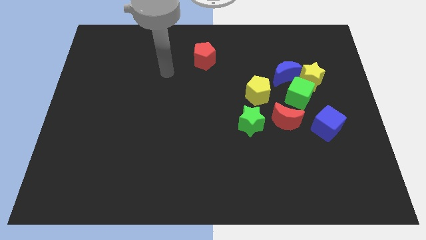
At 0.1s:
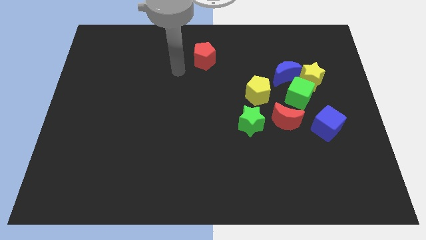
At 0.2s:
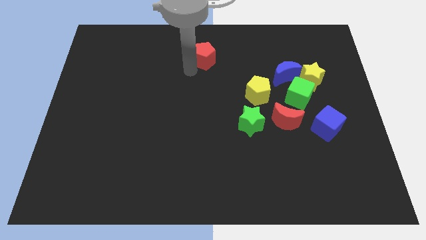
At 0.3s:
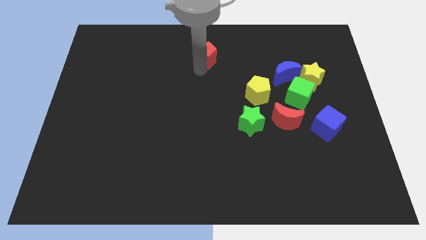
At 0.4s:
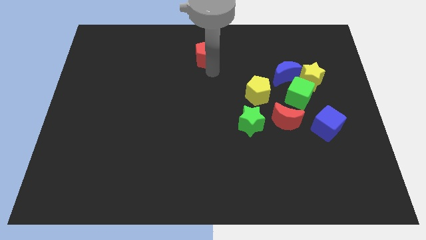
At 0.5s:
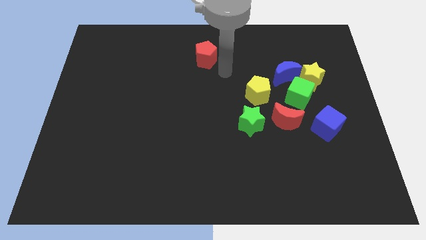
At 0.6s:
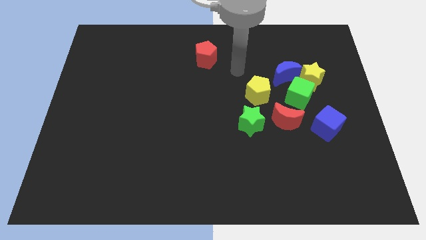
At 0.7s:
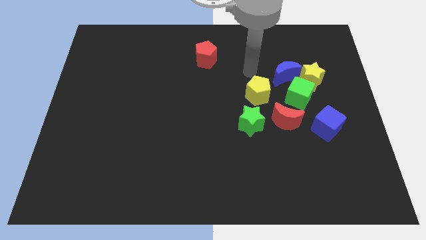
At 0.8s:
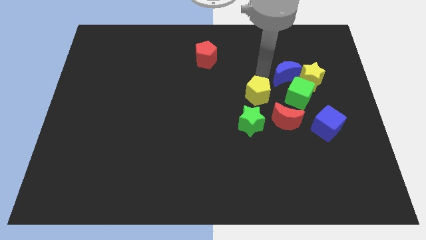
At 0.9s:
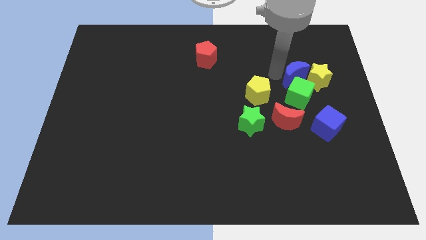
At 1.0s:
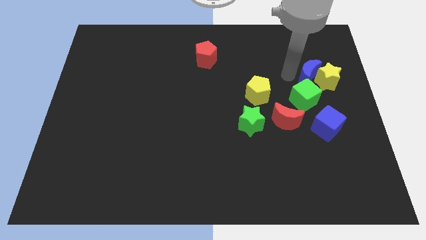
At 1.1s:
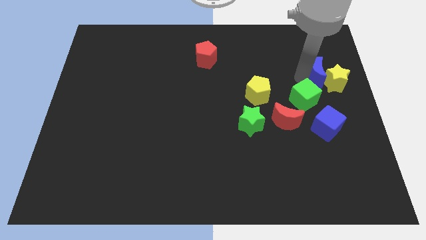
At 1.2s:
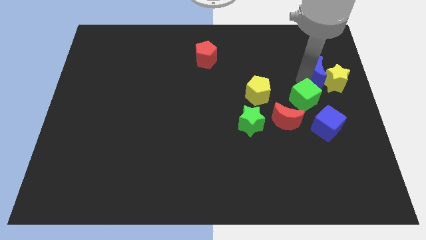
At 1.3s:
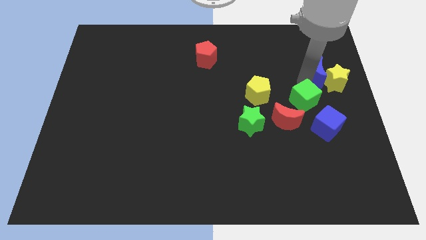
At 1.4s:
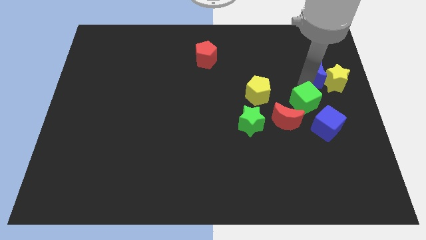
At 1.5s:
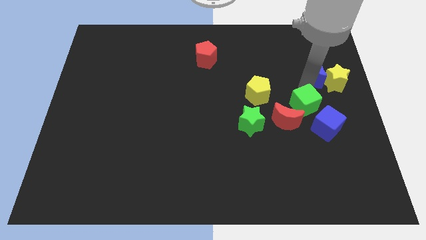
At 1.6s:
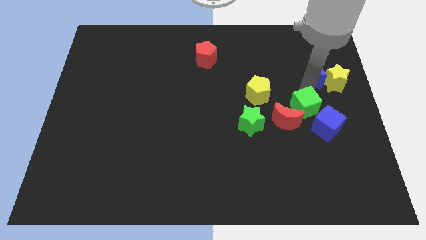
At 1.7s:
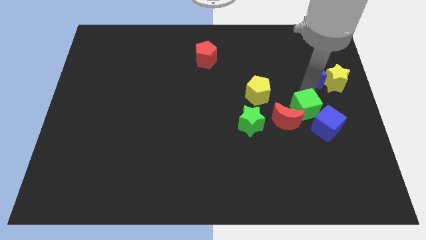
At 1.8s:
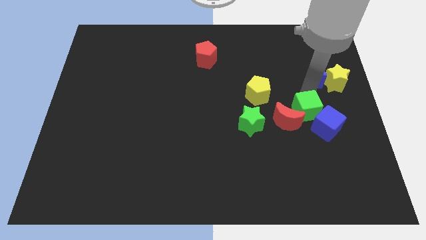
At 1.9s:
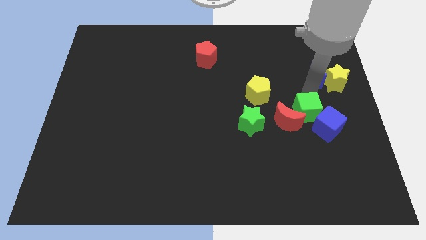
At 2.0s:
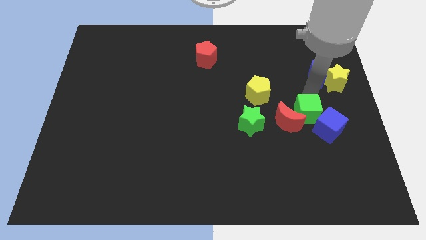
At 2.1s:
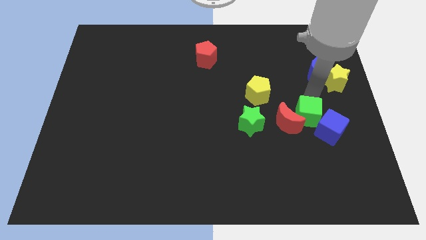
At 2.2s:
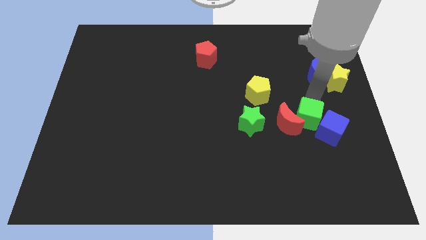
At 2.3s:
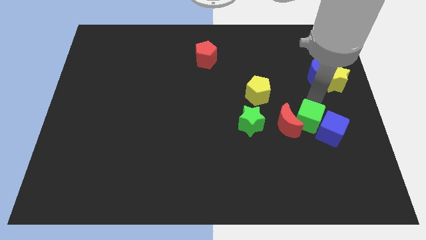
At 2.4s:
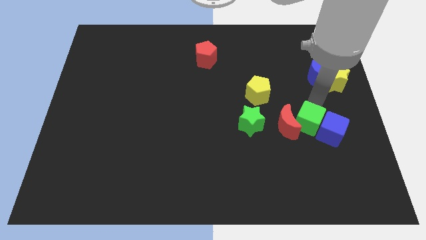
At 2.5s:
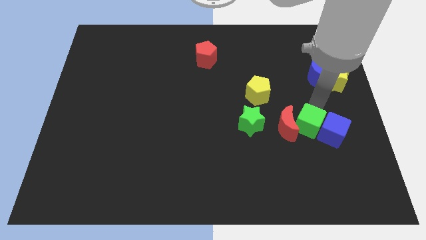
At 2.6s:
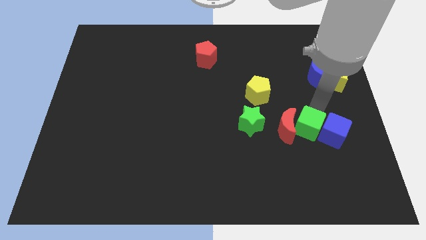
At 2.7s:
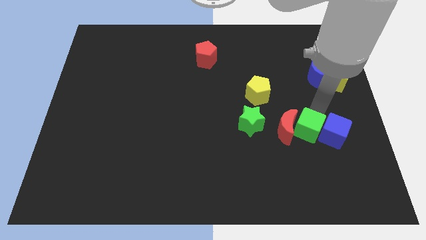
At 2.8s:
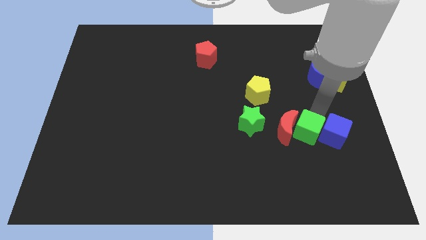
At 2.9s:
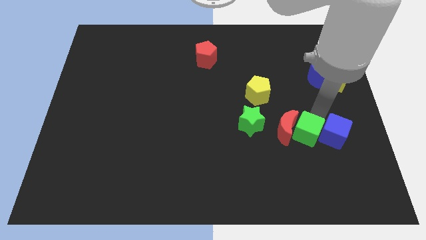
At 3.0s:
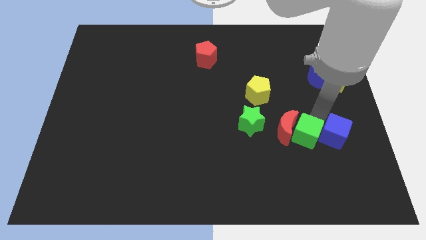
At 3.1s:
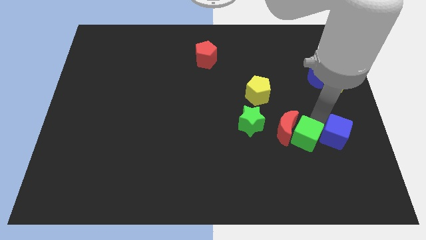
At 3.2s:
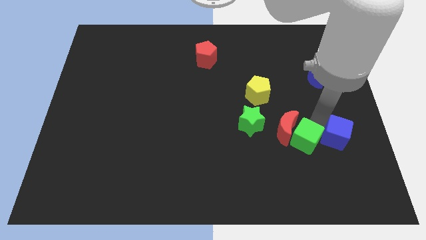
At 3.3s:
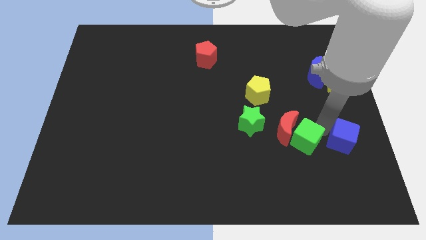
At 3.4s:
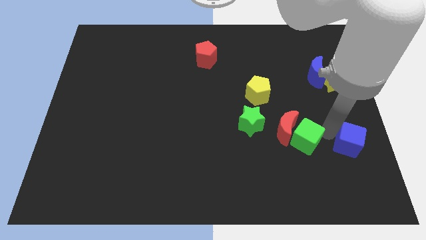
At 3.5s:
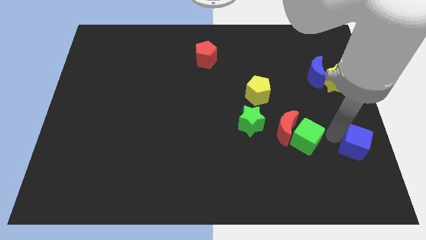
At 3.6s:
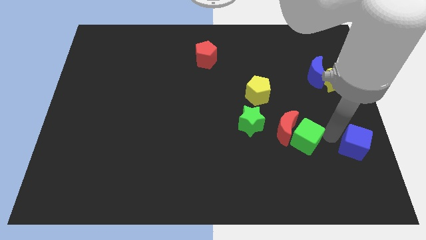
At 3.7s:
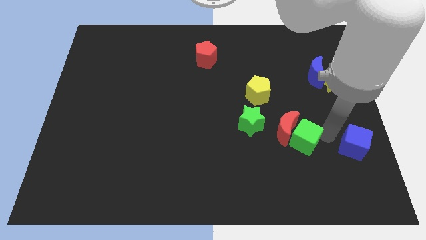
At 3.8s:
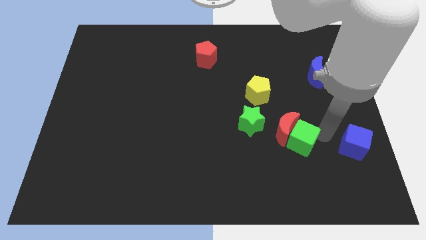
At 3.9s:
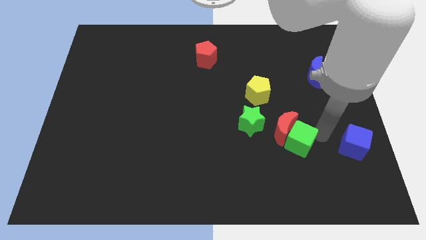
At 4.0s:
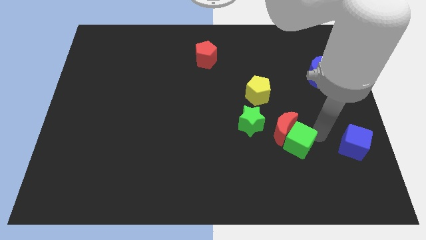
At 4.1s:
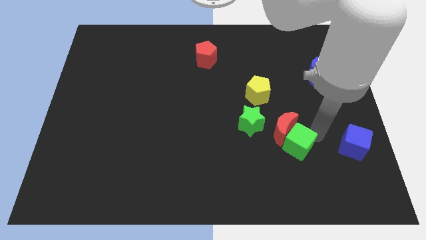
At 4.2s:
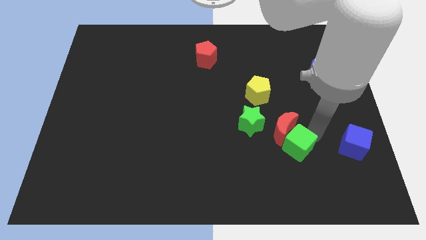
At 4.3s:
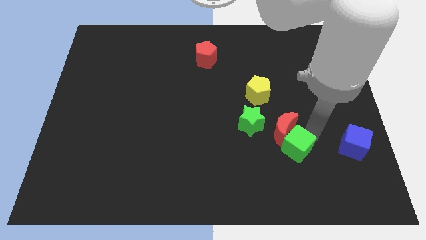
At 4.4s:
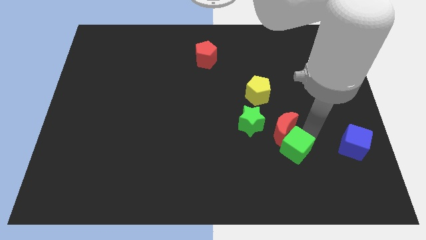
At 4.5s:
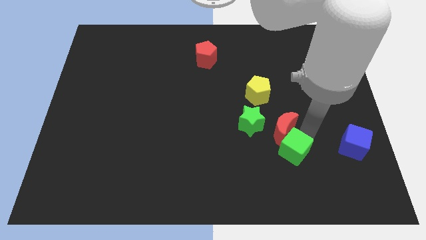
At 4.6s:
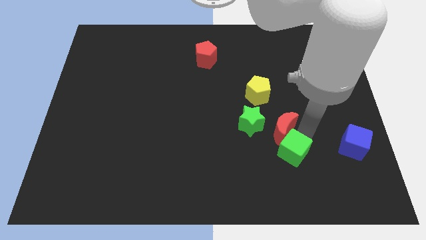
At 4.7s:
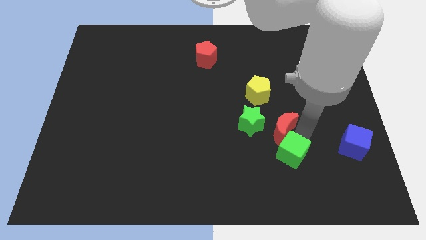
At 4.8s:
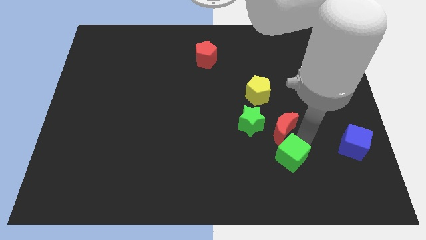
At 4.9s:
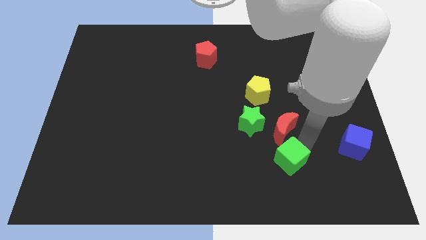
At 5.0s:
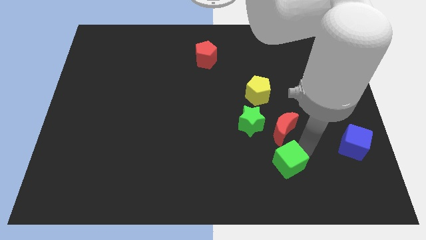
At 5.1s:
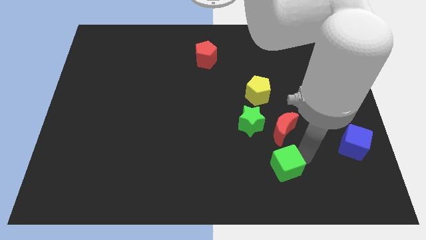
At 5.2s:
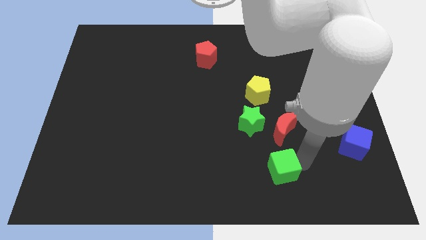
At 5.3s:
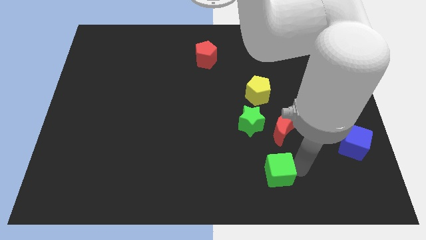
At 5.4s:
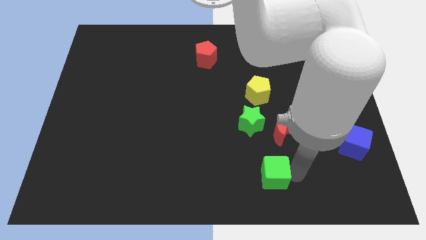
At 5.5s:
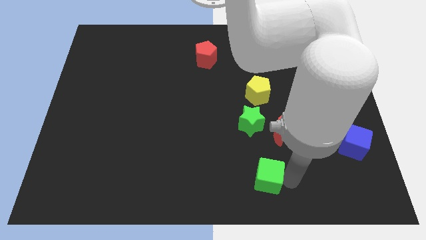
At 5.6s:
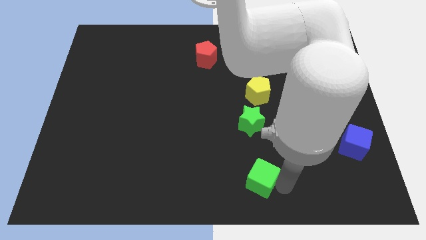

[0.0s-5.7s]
slide the green cube downwards and to the left diagonally

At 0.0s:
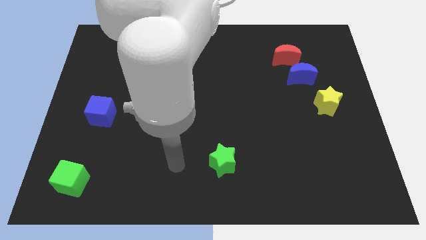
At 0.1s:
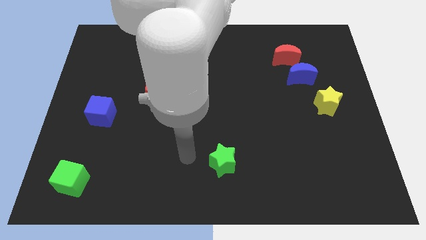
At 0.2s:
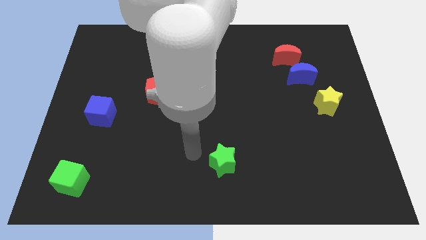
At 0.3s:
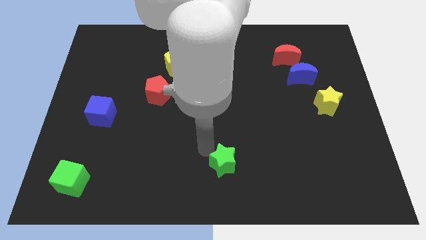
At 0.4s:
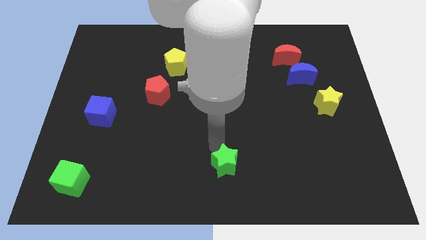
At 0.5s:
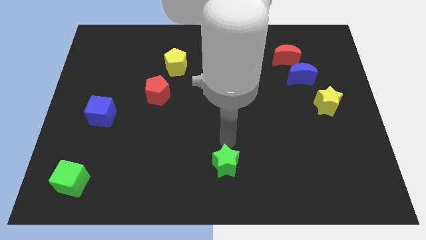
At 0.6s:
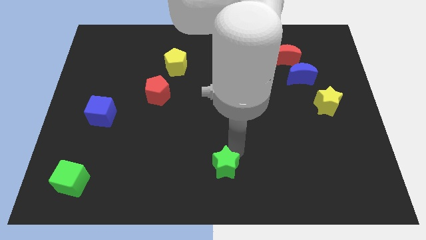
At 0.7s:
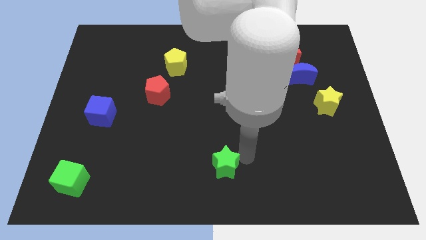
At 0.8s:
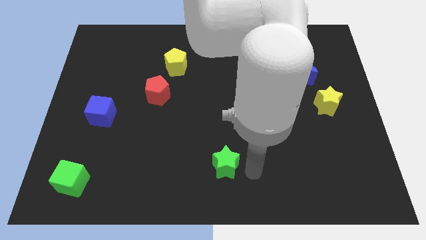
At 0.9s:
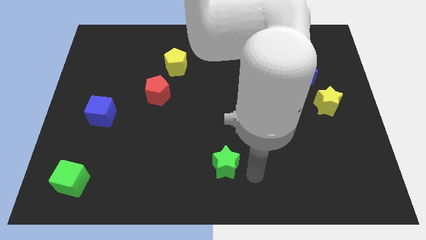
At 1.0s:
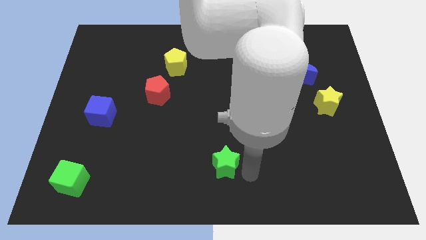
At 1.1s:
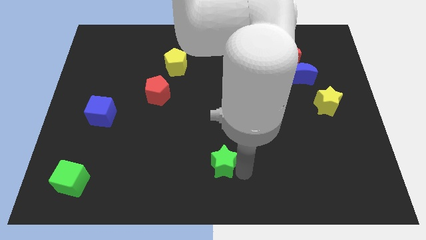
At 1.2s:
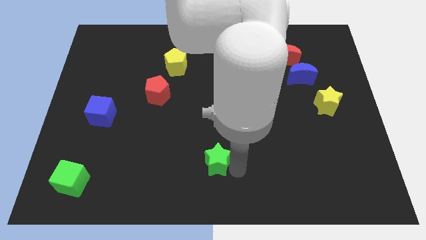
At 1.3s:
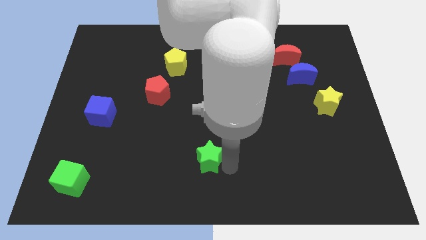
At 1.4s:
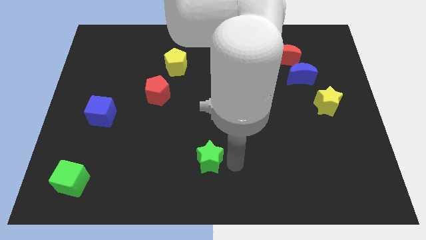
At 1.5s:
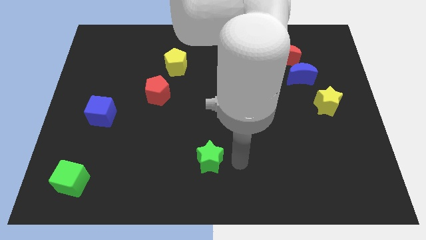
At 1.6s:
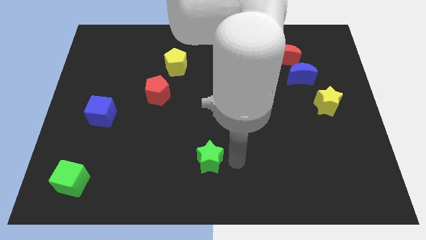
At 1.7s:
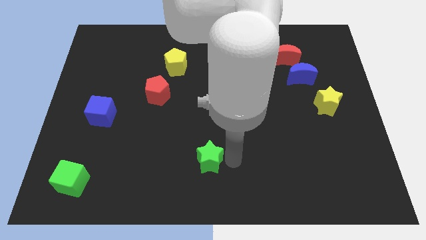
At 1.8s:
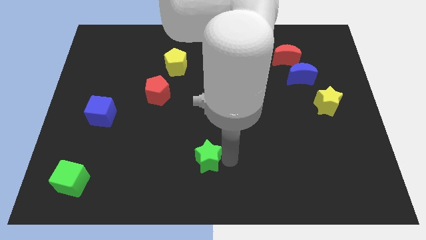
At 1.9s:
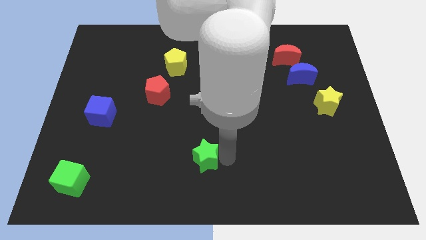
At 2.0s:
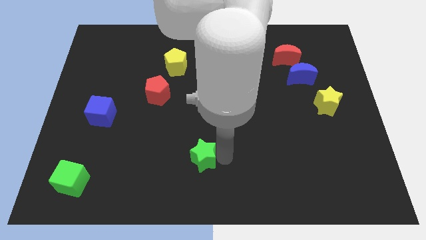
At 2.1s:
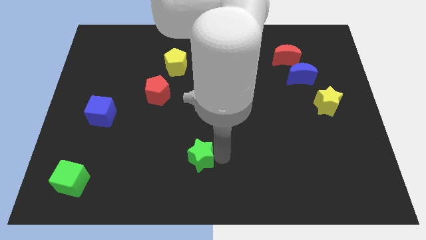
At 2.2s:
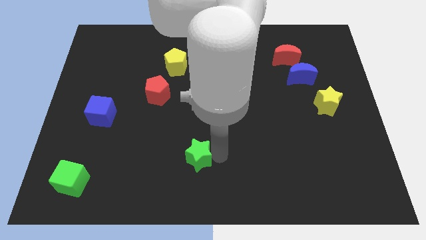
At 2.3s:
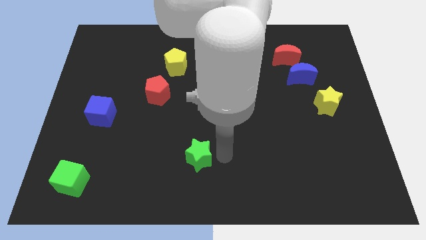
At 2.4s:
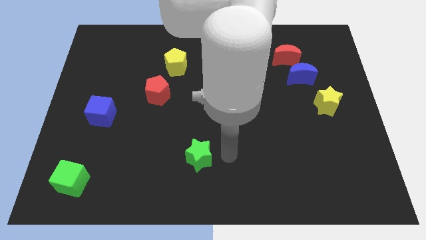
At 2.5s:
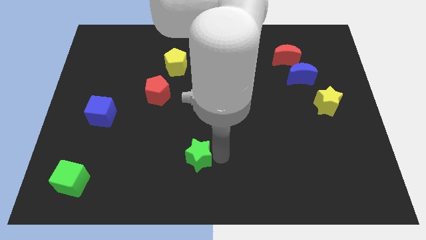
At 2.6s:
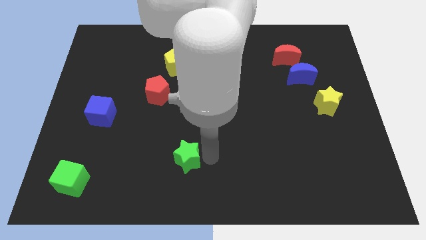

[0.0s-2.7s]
push the green star left slightly
